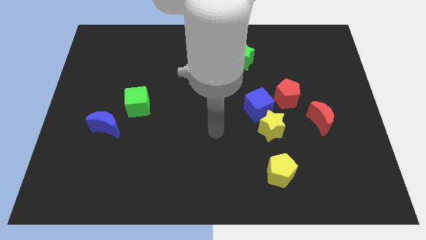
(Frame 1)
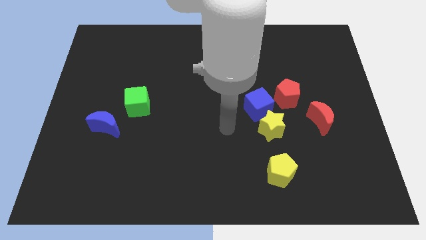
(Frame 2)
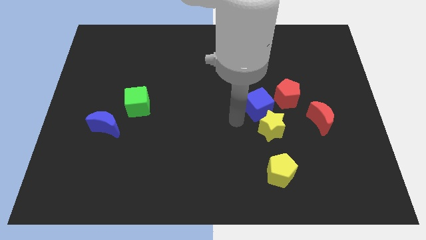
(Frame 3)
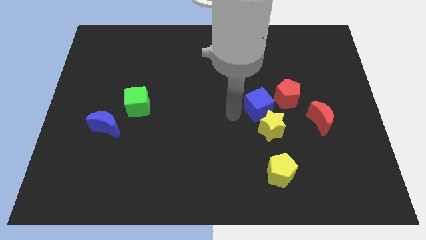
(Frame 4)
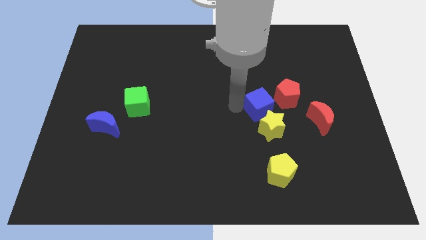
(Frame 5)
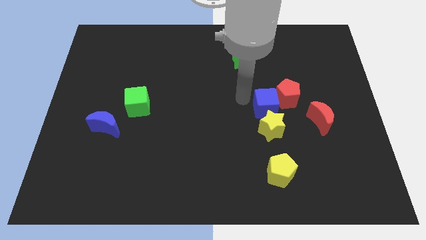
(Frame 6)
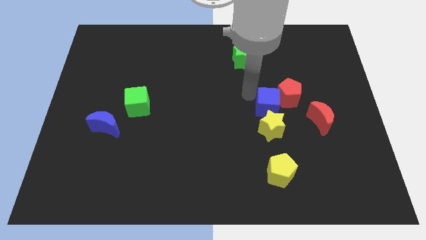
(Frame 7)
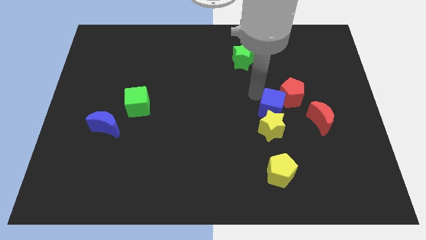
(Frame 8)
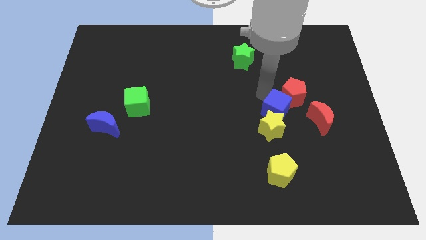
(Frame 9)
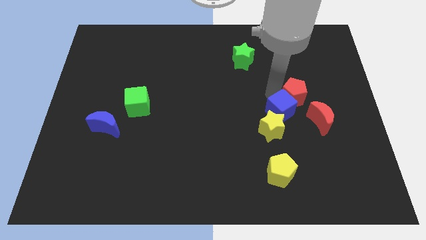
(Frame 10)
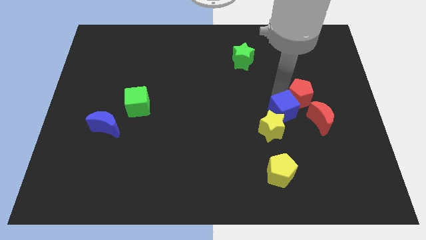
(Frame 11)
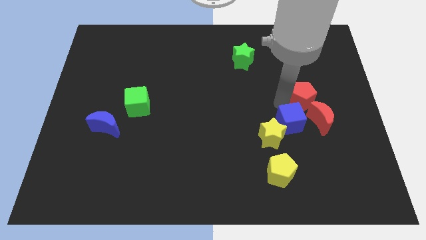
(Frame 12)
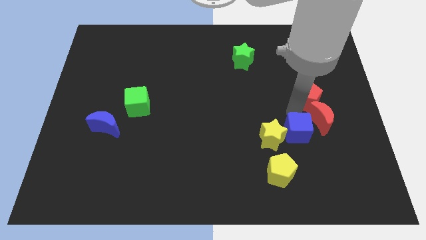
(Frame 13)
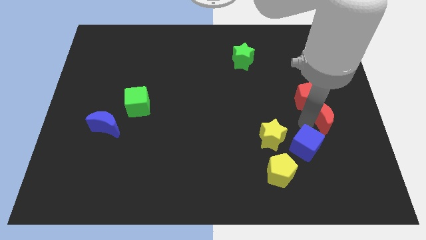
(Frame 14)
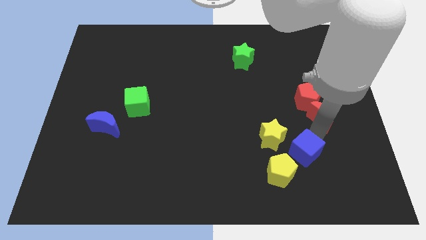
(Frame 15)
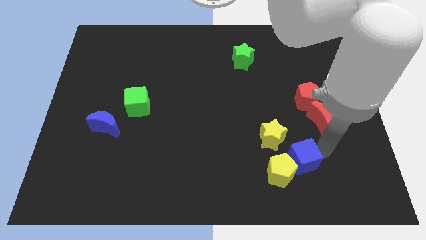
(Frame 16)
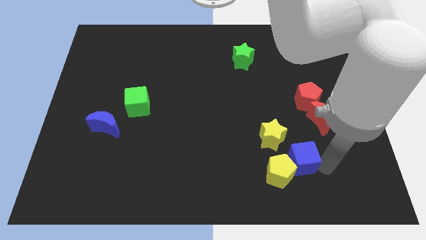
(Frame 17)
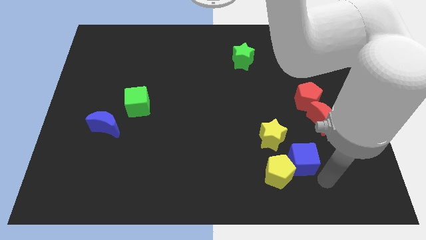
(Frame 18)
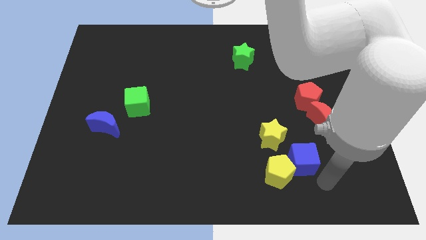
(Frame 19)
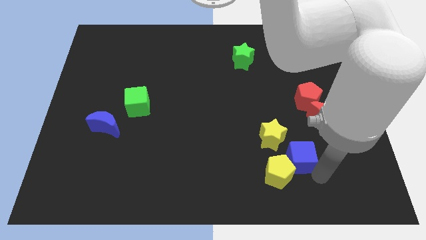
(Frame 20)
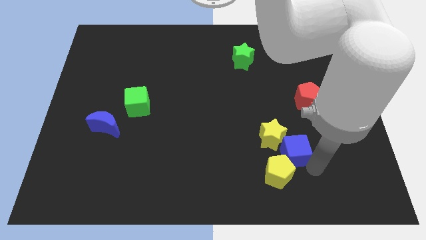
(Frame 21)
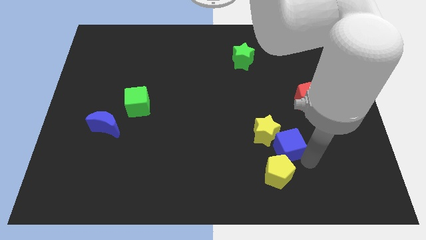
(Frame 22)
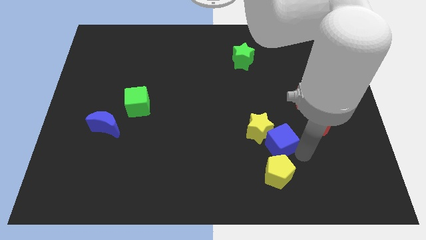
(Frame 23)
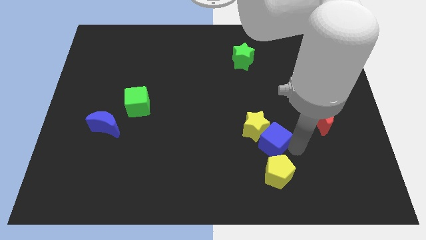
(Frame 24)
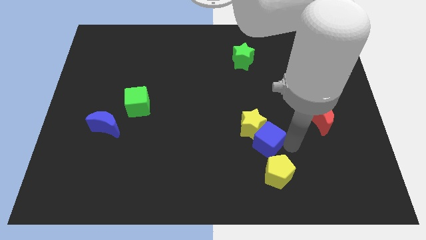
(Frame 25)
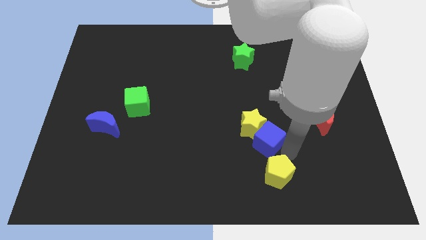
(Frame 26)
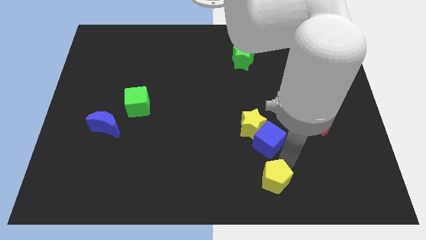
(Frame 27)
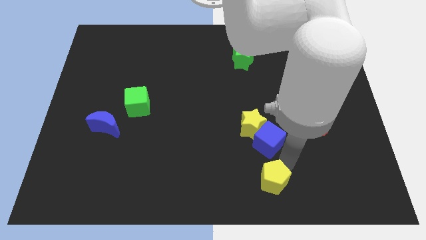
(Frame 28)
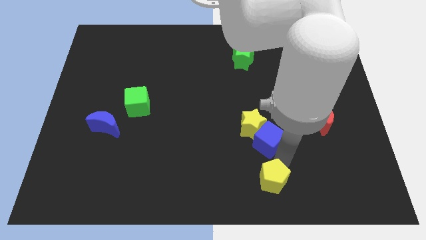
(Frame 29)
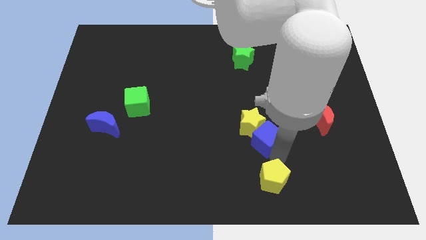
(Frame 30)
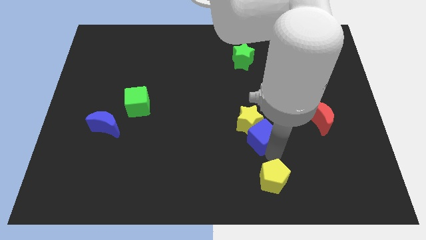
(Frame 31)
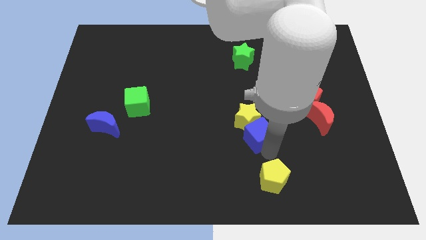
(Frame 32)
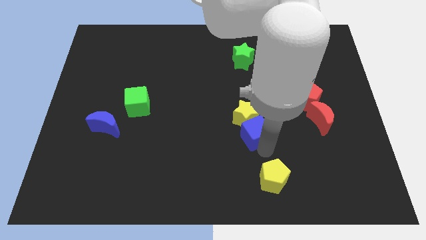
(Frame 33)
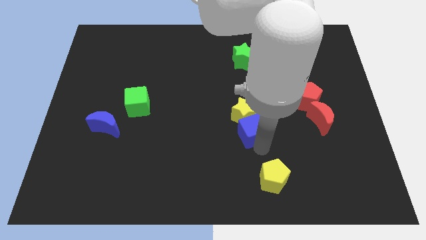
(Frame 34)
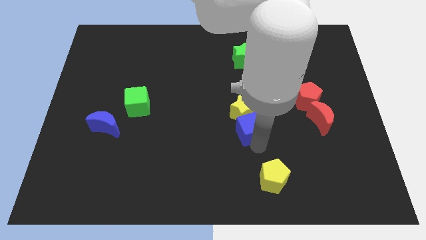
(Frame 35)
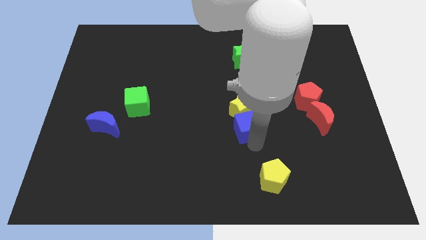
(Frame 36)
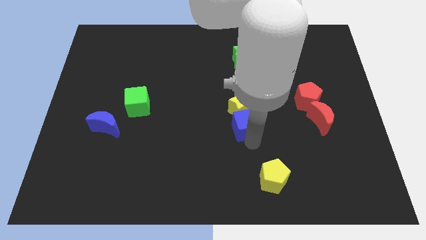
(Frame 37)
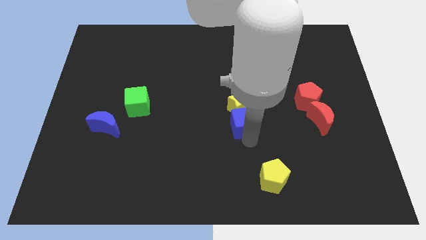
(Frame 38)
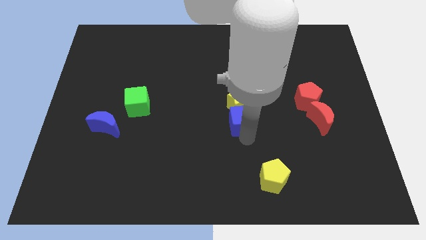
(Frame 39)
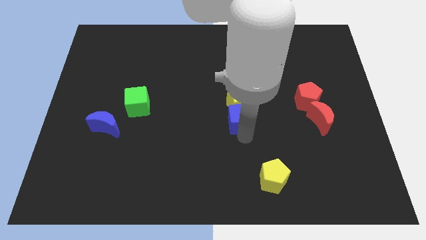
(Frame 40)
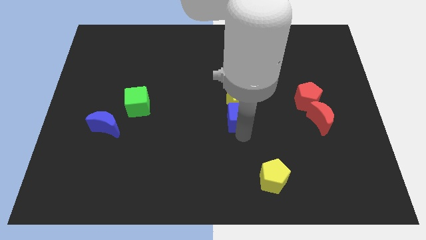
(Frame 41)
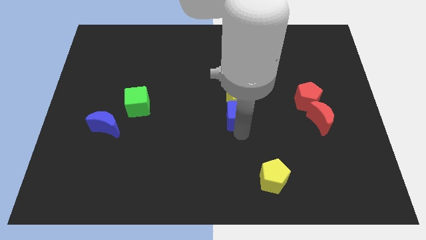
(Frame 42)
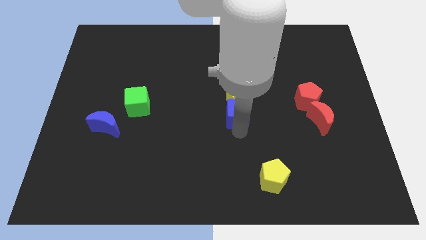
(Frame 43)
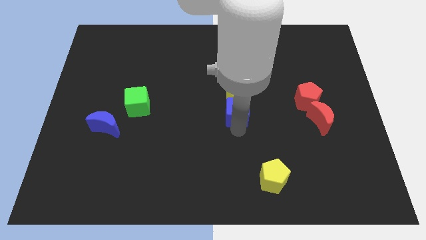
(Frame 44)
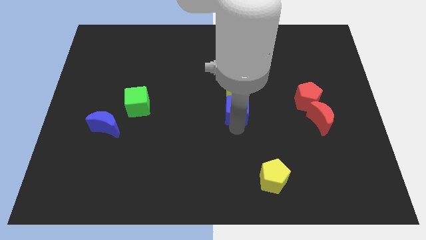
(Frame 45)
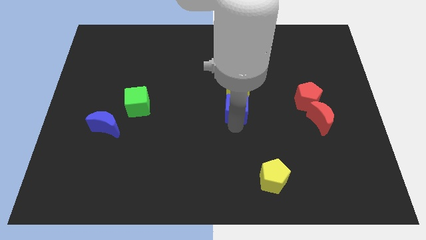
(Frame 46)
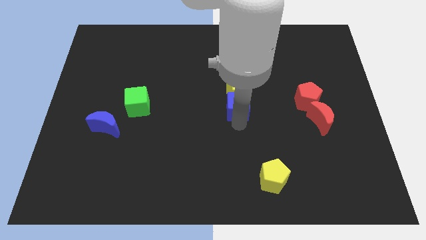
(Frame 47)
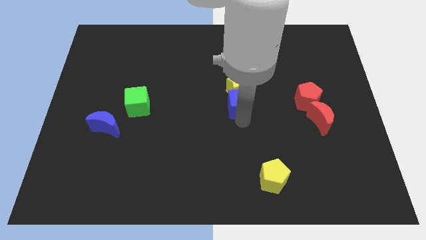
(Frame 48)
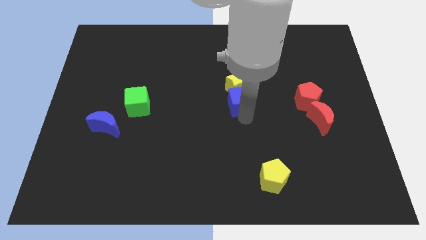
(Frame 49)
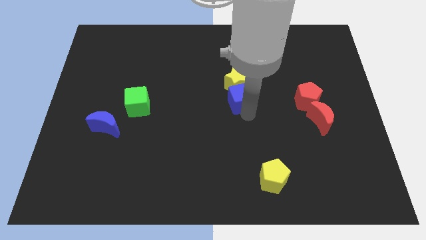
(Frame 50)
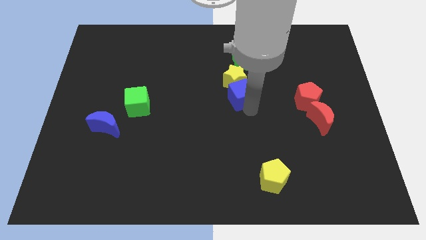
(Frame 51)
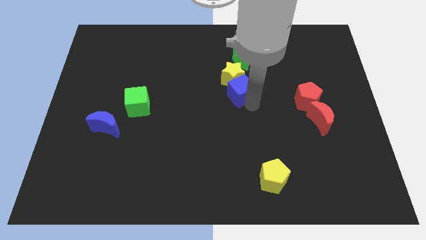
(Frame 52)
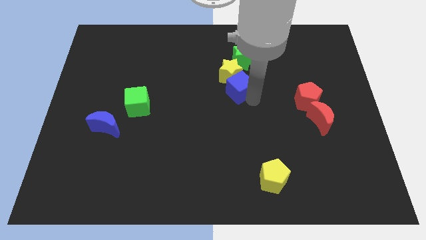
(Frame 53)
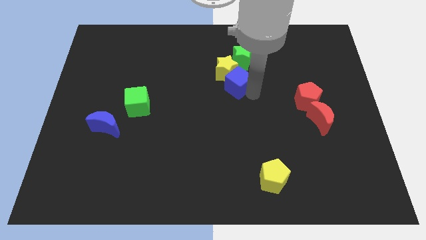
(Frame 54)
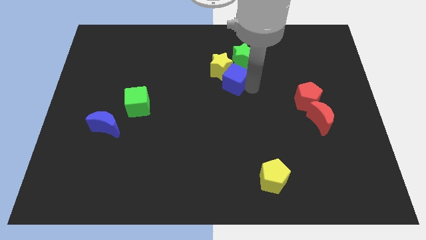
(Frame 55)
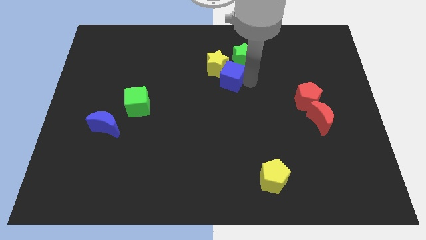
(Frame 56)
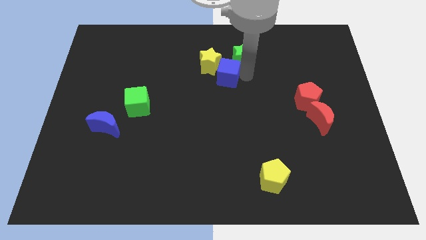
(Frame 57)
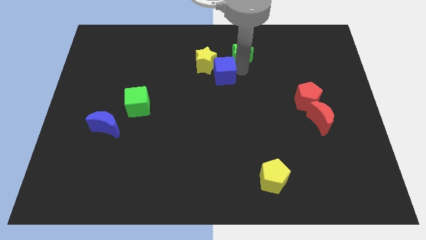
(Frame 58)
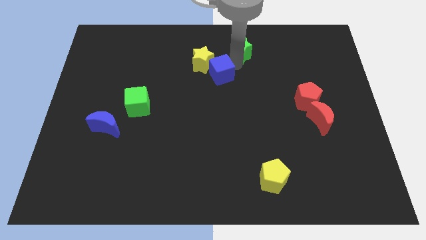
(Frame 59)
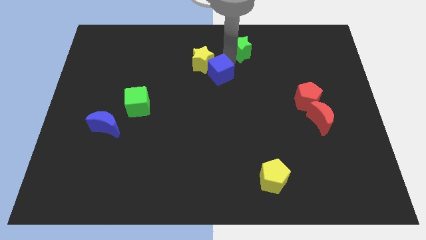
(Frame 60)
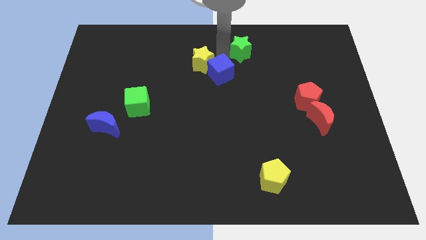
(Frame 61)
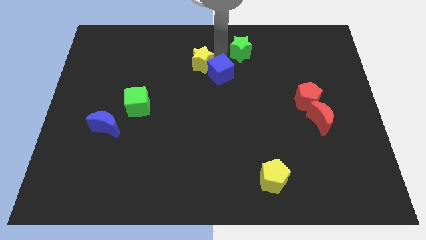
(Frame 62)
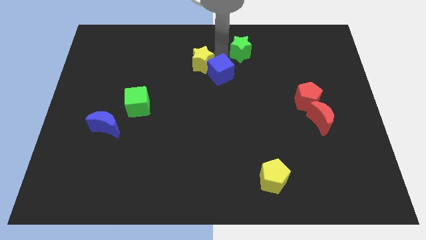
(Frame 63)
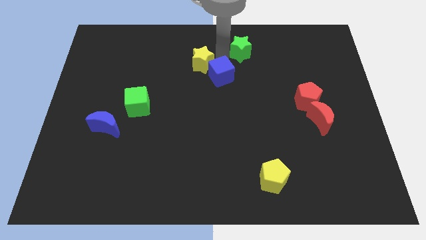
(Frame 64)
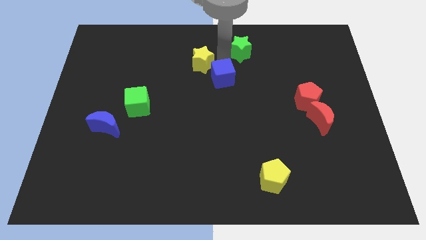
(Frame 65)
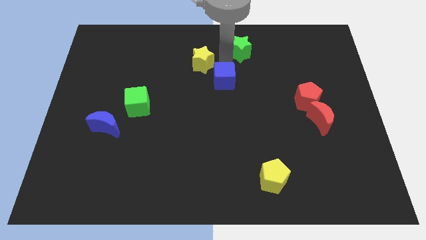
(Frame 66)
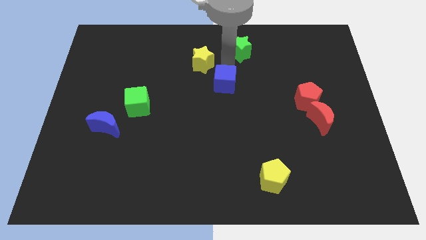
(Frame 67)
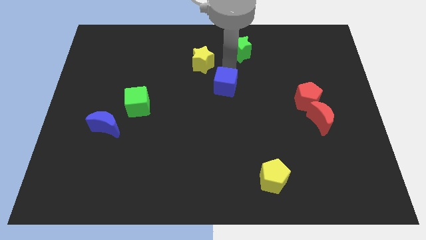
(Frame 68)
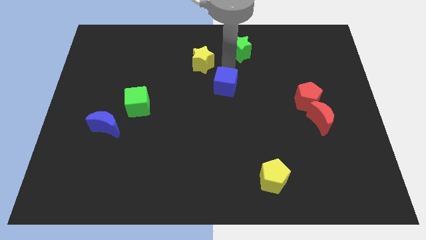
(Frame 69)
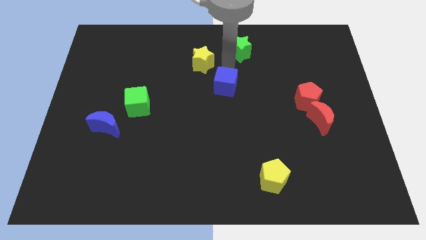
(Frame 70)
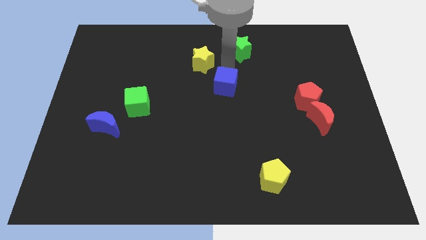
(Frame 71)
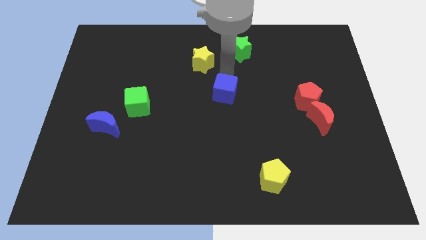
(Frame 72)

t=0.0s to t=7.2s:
slide the blue cube to the left slightly

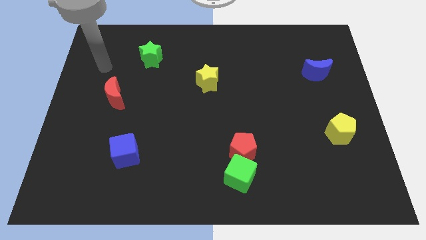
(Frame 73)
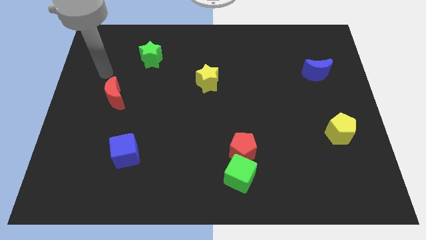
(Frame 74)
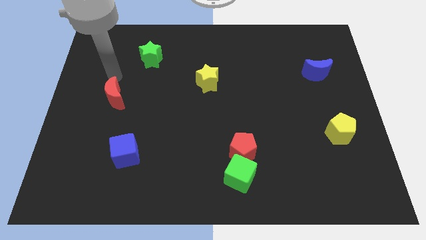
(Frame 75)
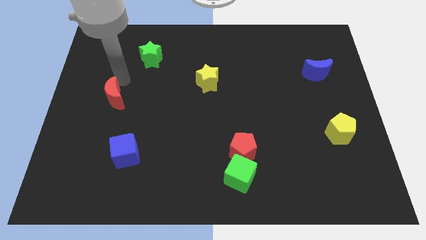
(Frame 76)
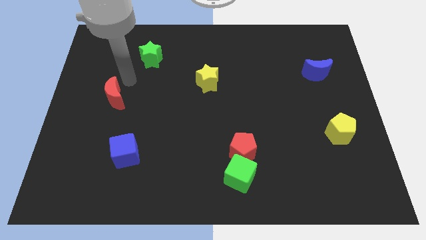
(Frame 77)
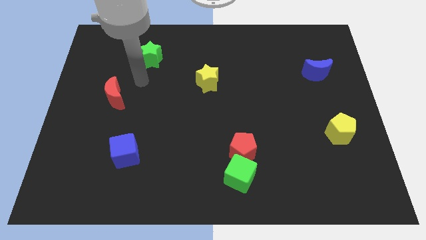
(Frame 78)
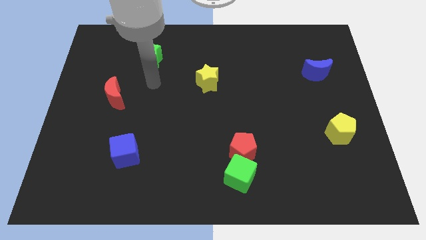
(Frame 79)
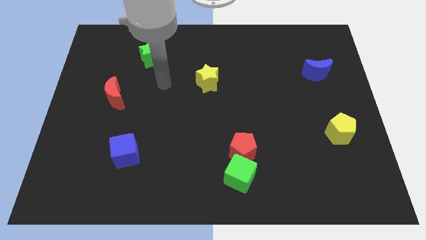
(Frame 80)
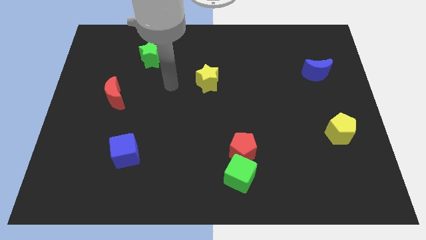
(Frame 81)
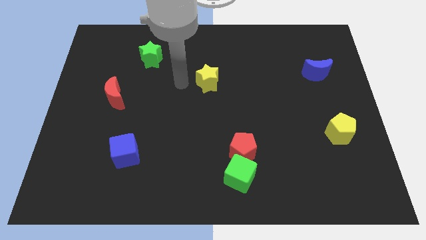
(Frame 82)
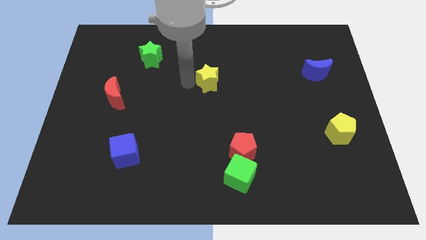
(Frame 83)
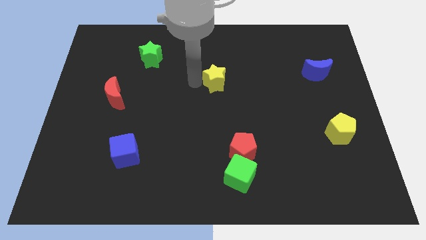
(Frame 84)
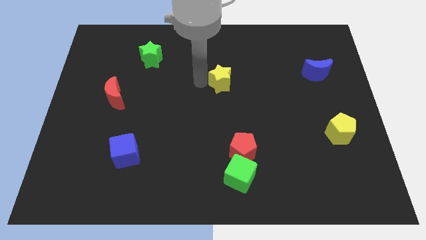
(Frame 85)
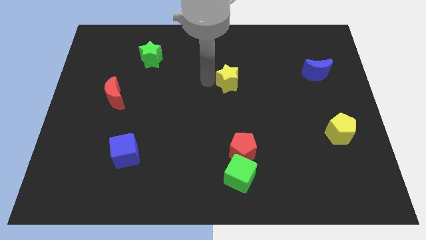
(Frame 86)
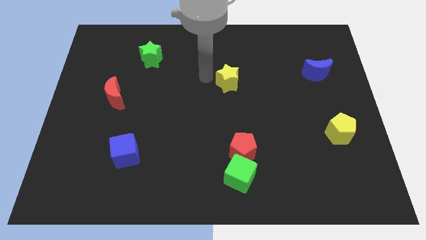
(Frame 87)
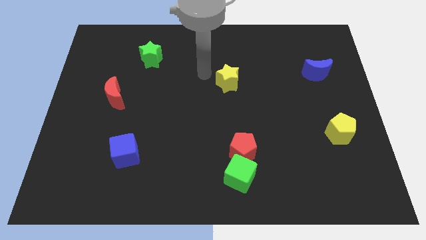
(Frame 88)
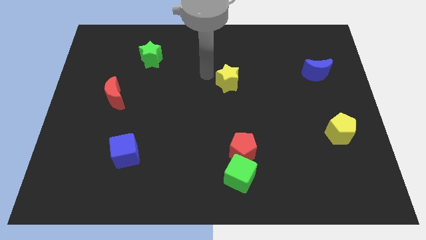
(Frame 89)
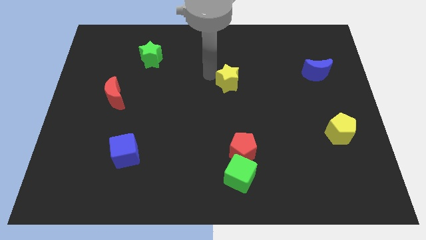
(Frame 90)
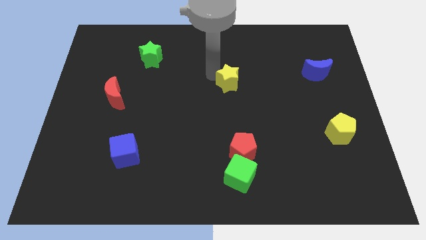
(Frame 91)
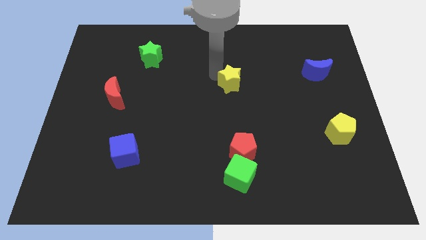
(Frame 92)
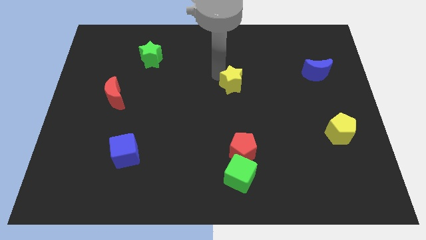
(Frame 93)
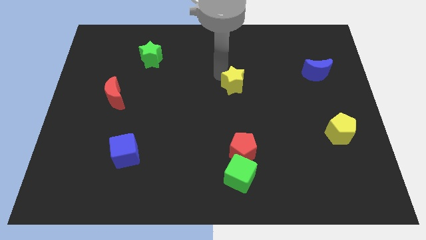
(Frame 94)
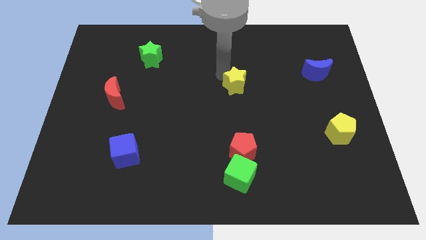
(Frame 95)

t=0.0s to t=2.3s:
slide the yellow star right slightly
